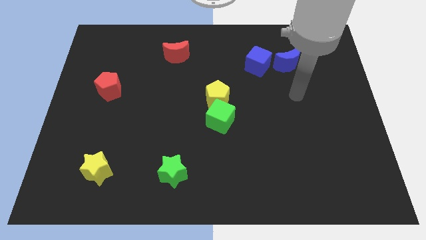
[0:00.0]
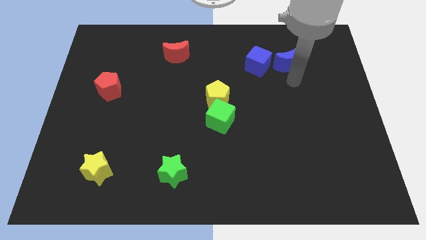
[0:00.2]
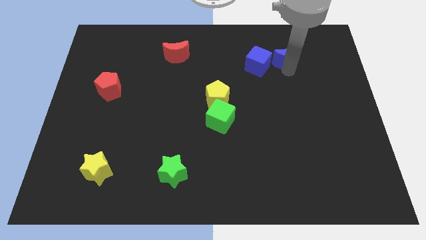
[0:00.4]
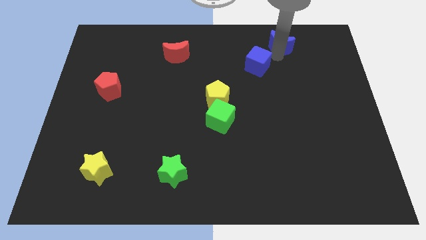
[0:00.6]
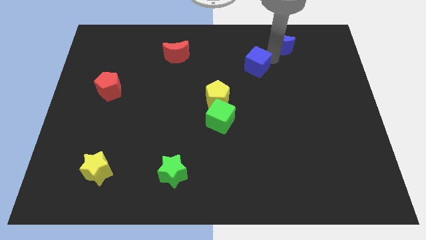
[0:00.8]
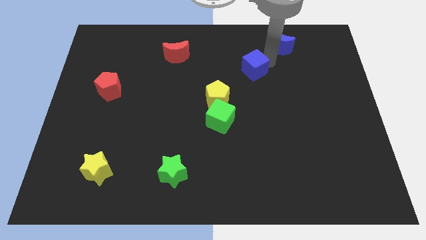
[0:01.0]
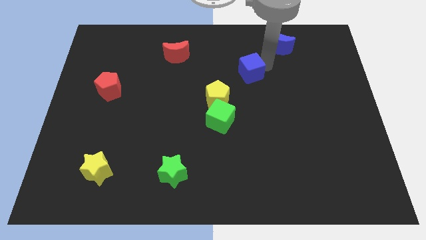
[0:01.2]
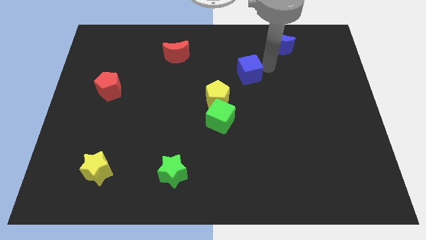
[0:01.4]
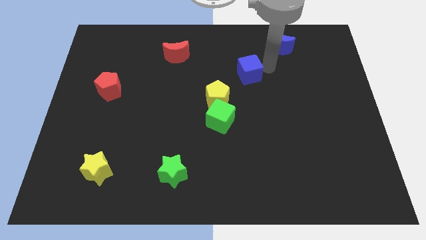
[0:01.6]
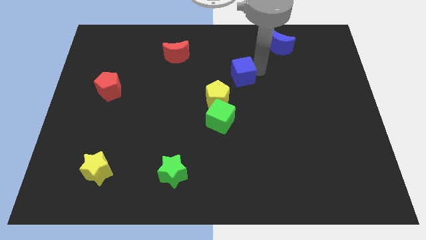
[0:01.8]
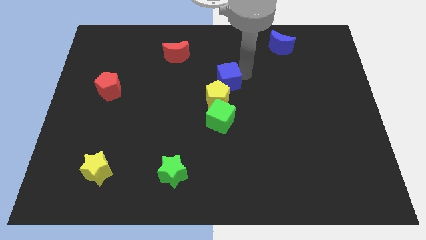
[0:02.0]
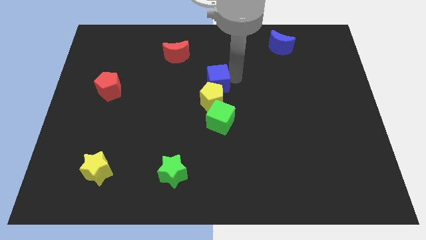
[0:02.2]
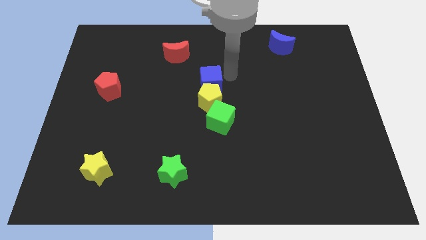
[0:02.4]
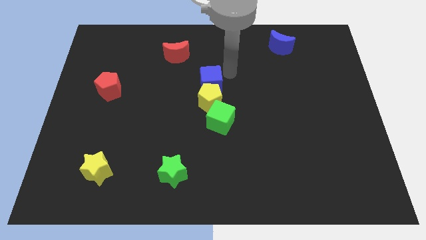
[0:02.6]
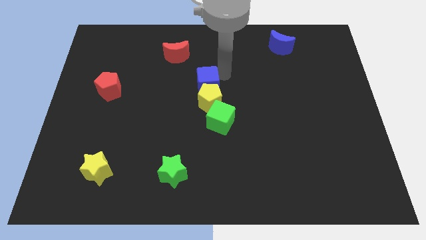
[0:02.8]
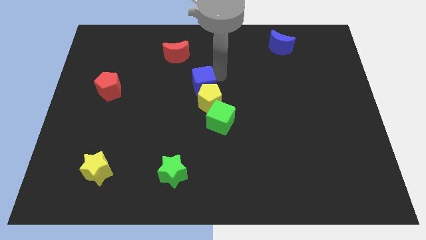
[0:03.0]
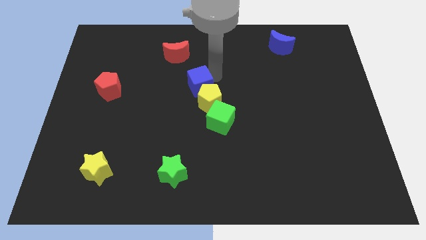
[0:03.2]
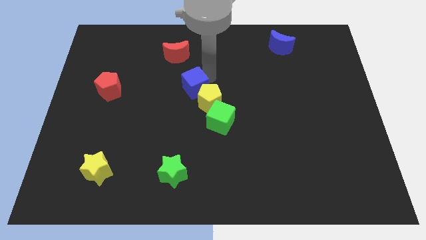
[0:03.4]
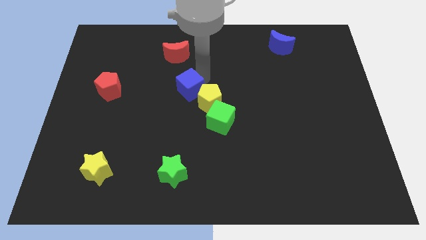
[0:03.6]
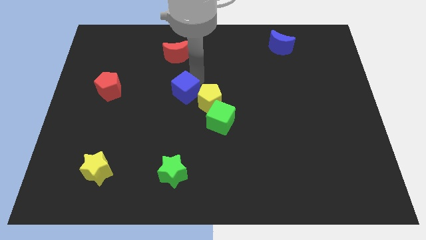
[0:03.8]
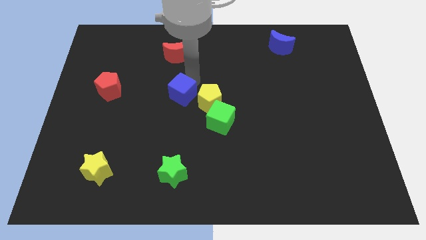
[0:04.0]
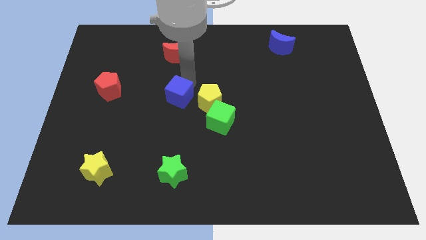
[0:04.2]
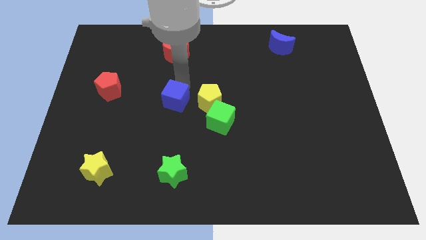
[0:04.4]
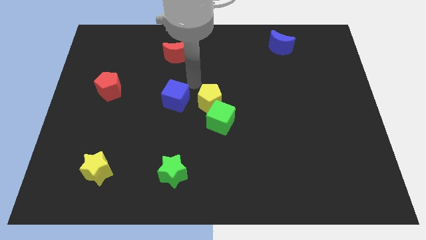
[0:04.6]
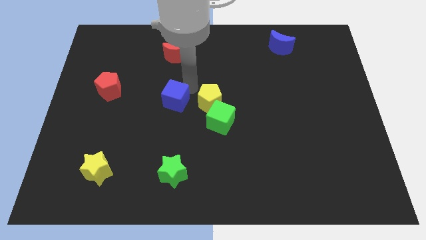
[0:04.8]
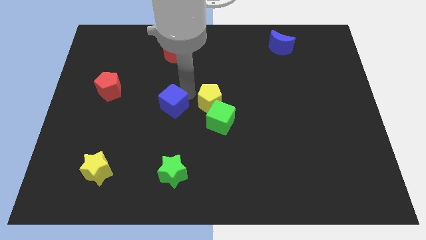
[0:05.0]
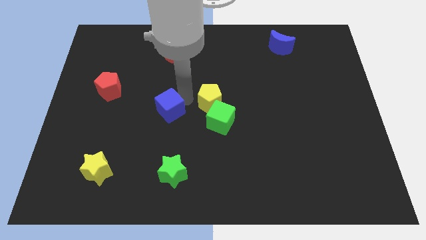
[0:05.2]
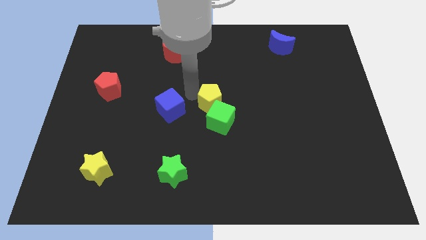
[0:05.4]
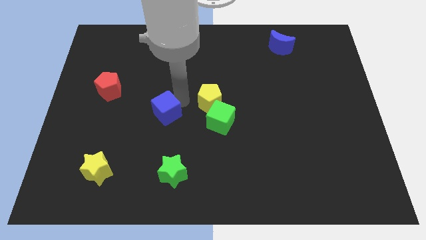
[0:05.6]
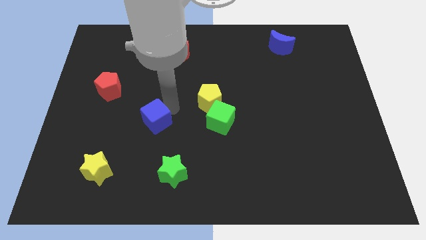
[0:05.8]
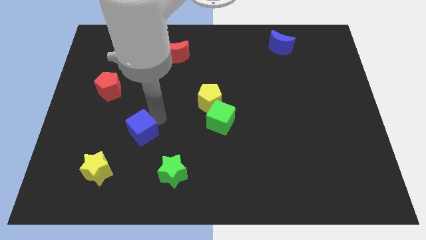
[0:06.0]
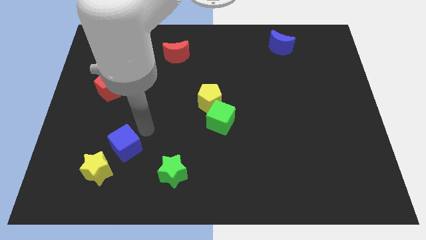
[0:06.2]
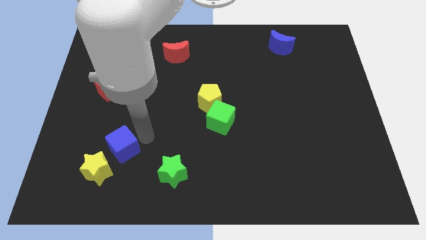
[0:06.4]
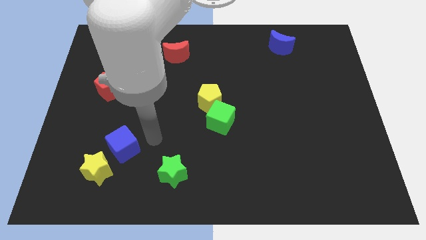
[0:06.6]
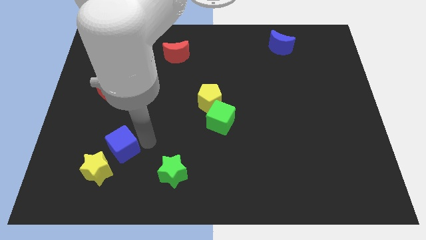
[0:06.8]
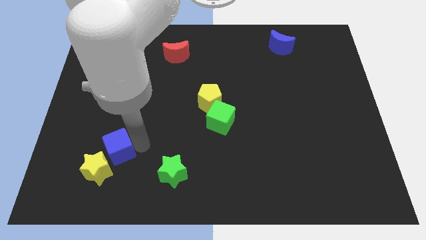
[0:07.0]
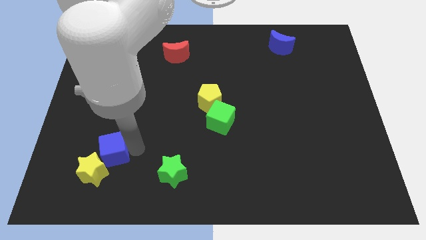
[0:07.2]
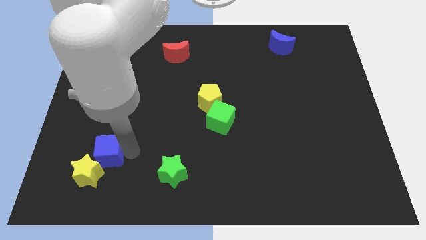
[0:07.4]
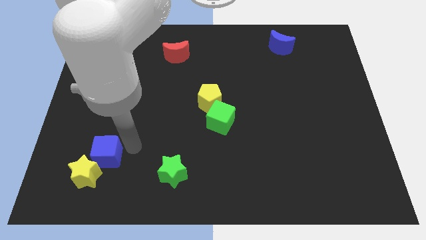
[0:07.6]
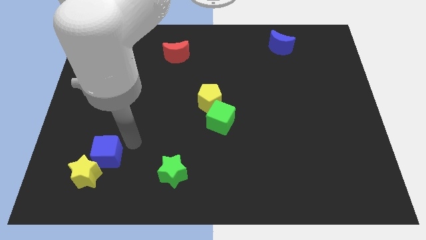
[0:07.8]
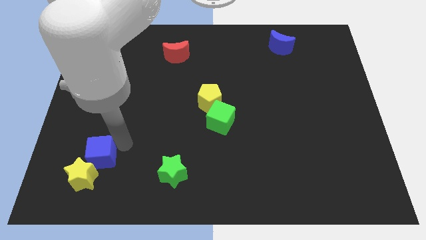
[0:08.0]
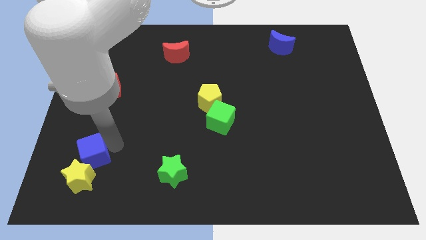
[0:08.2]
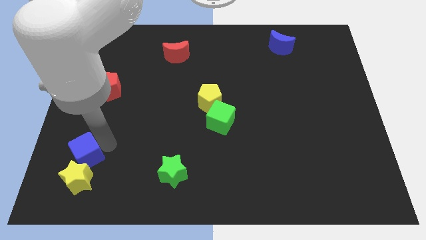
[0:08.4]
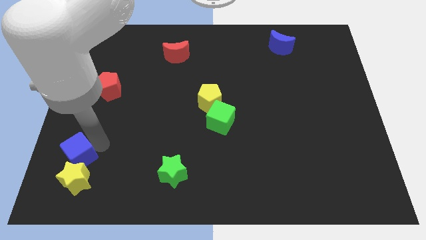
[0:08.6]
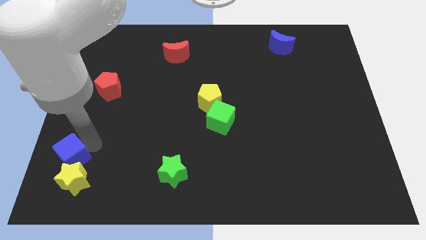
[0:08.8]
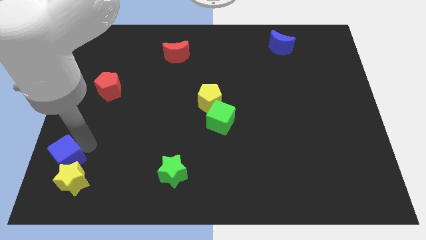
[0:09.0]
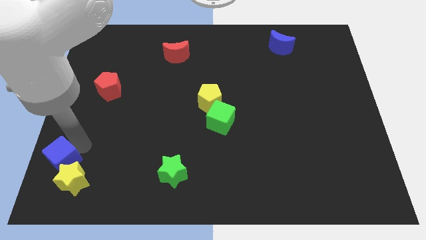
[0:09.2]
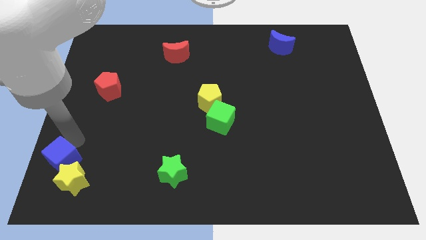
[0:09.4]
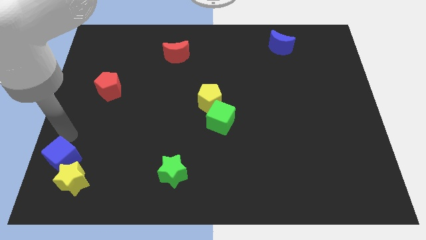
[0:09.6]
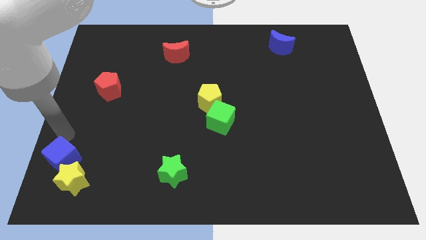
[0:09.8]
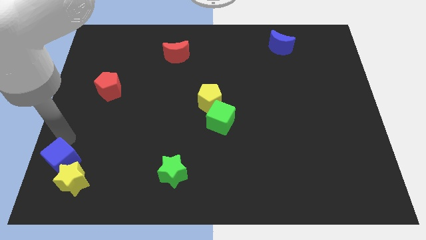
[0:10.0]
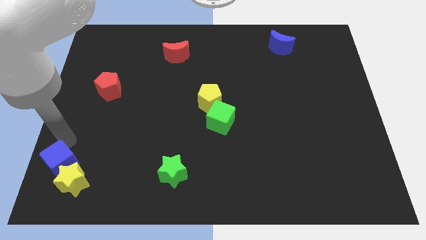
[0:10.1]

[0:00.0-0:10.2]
put the blue cube to the bottom left of the board
